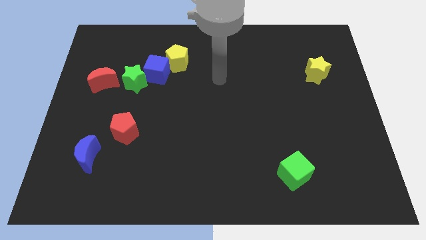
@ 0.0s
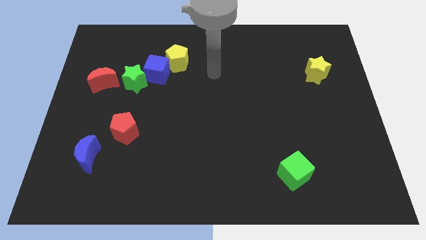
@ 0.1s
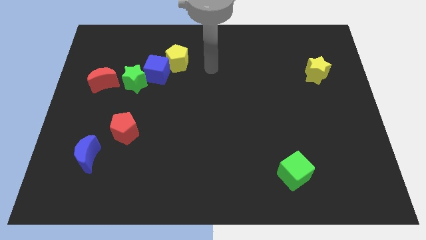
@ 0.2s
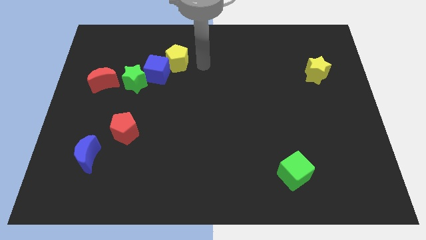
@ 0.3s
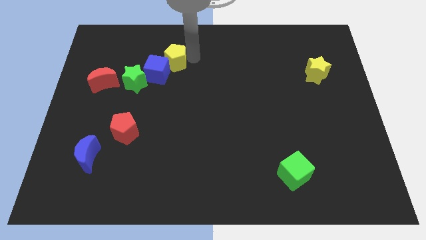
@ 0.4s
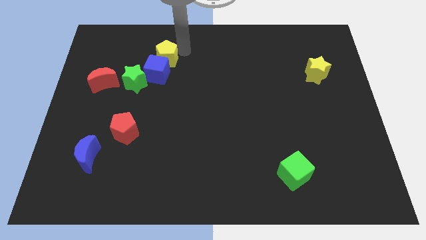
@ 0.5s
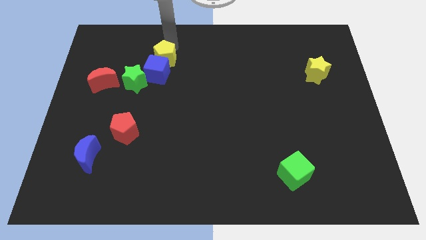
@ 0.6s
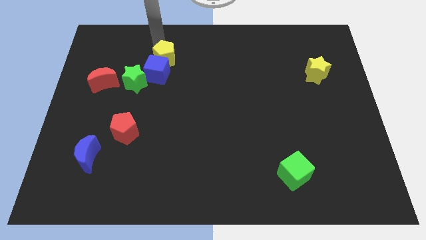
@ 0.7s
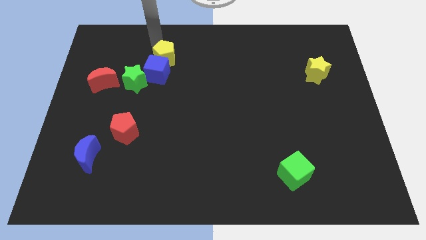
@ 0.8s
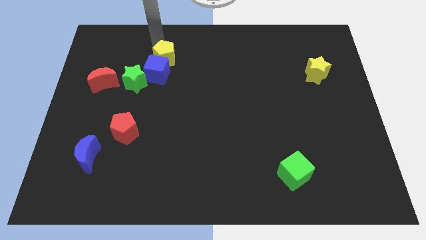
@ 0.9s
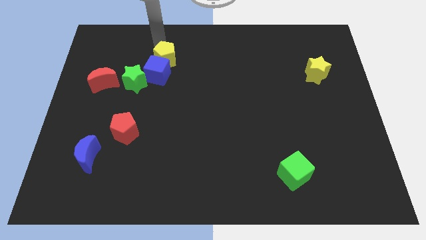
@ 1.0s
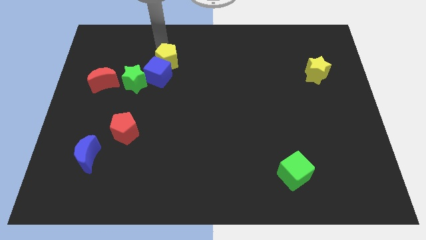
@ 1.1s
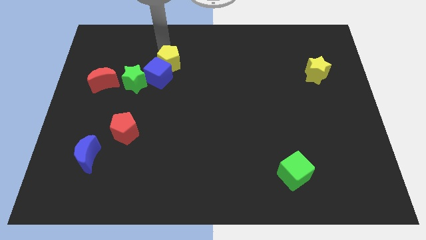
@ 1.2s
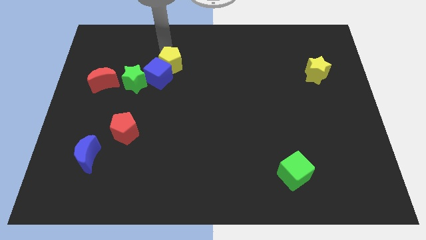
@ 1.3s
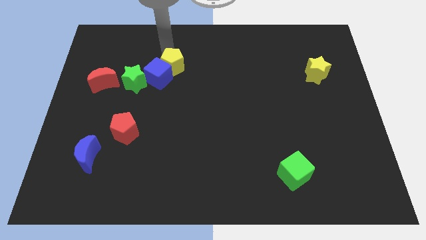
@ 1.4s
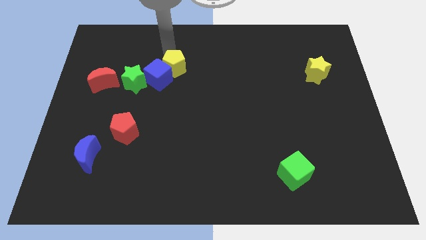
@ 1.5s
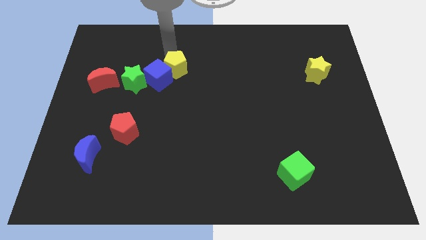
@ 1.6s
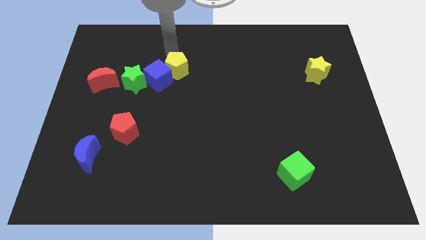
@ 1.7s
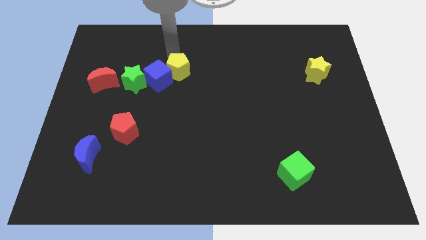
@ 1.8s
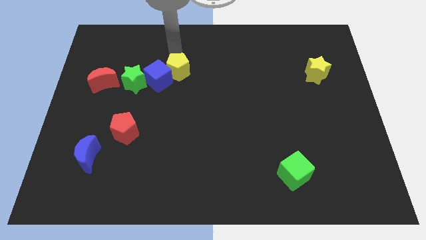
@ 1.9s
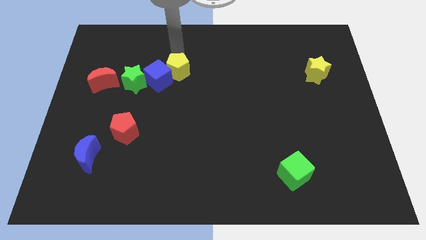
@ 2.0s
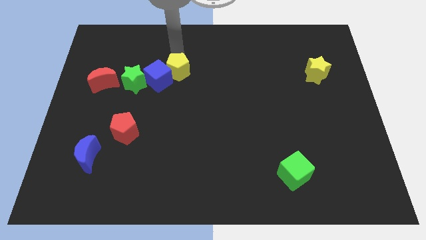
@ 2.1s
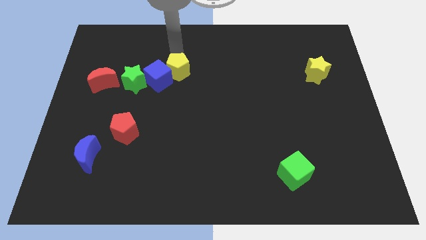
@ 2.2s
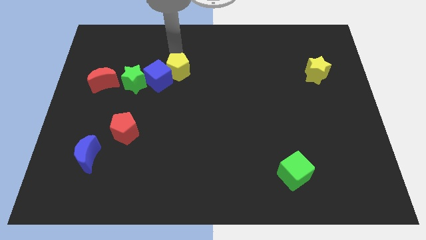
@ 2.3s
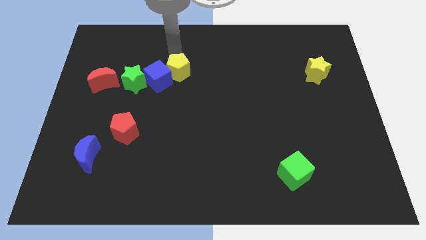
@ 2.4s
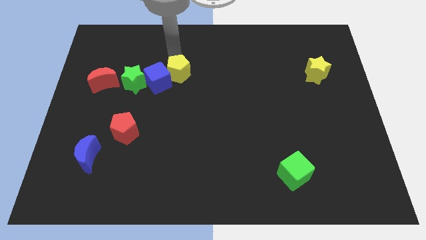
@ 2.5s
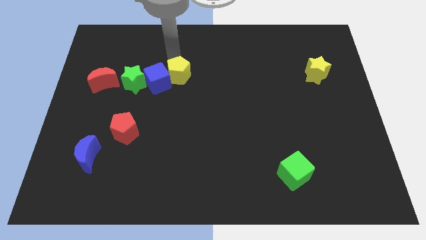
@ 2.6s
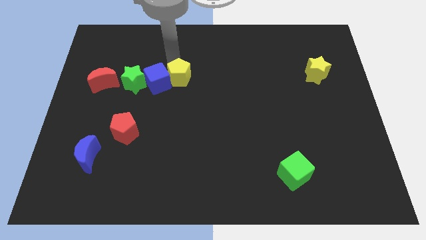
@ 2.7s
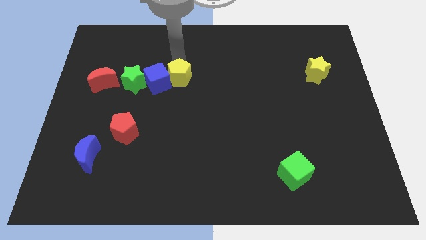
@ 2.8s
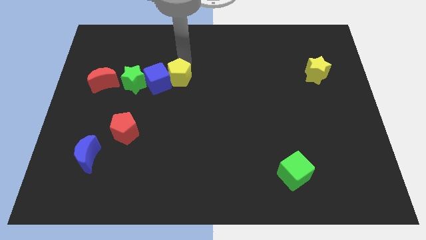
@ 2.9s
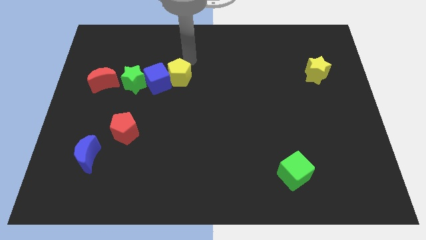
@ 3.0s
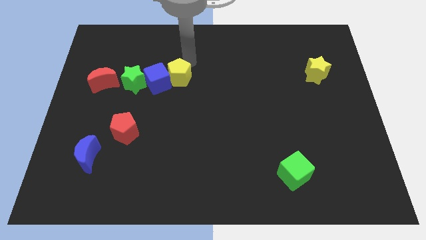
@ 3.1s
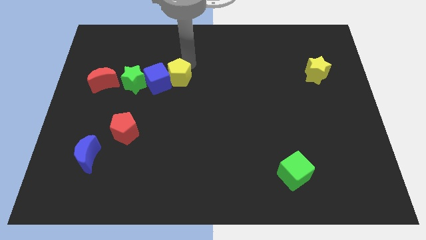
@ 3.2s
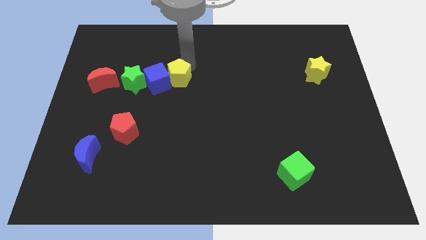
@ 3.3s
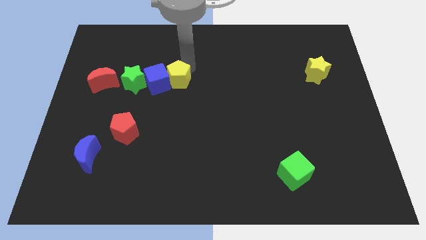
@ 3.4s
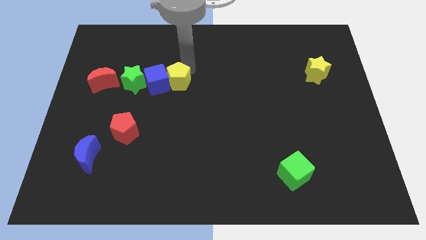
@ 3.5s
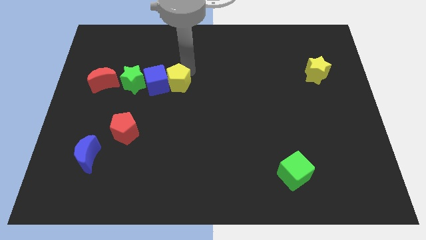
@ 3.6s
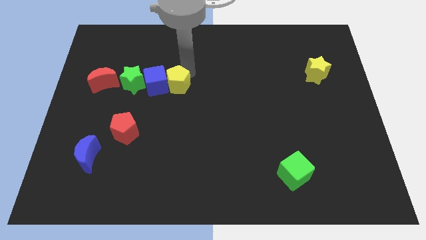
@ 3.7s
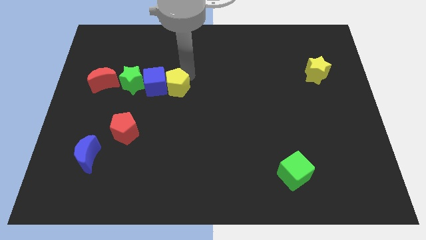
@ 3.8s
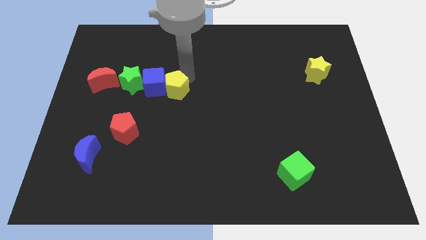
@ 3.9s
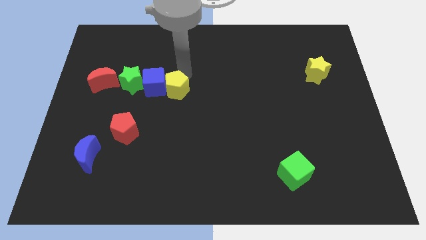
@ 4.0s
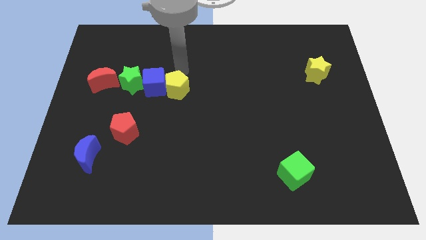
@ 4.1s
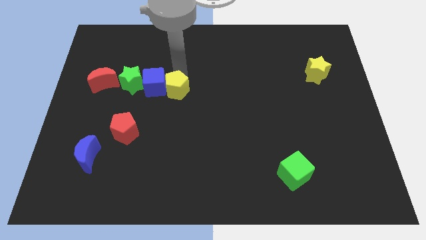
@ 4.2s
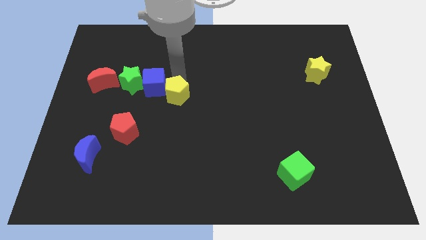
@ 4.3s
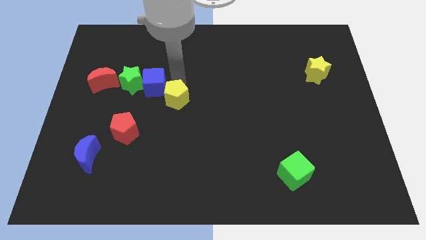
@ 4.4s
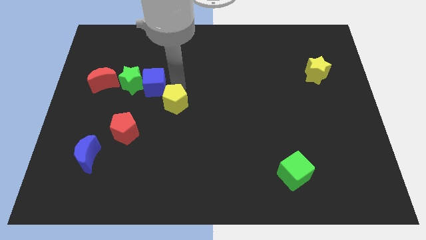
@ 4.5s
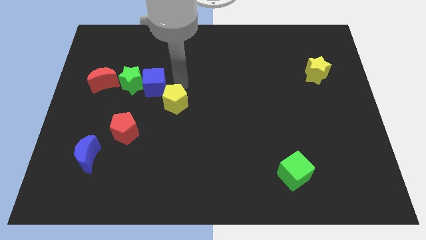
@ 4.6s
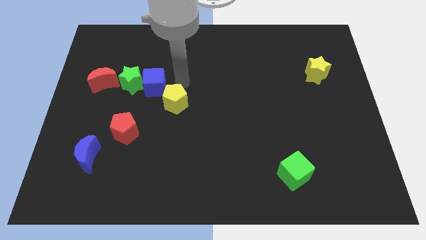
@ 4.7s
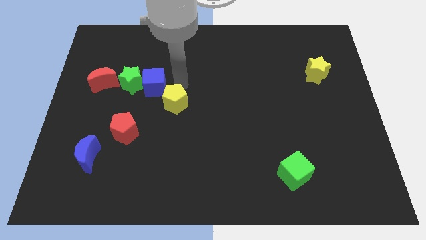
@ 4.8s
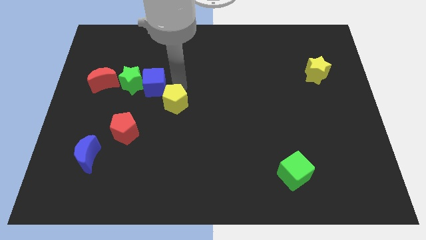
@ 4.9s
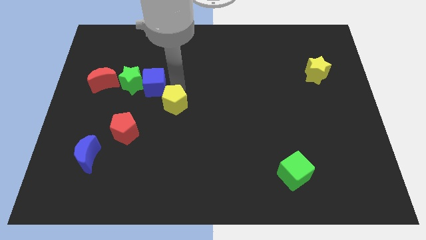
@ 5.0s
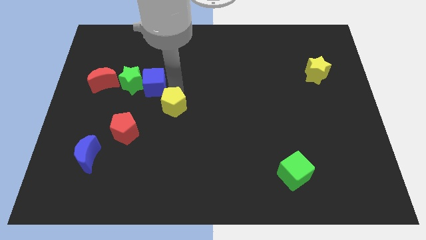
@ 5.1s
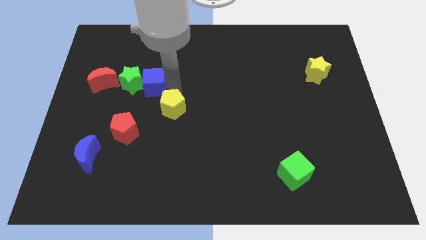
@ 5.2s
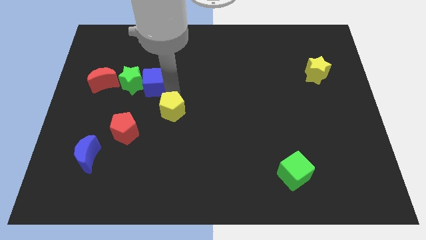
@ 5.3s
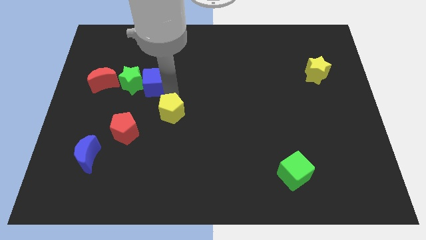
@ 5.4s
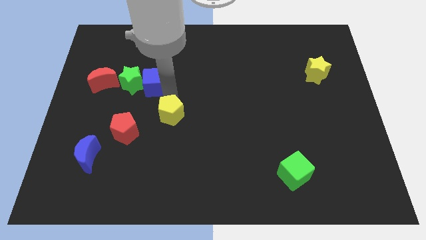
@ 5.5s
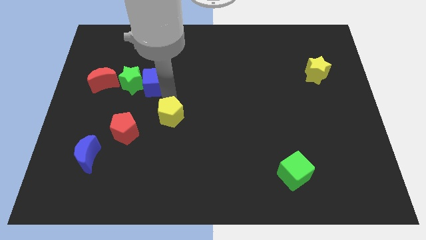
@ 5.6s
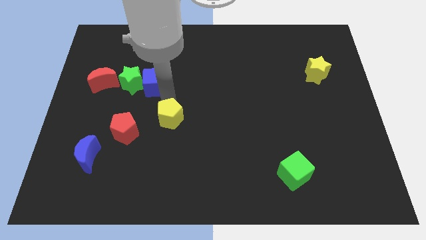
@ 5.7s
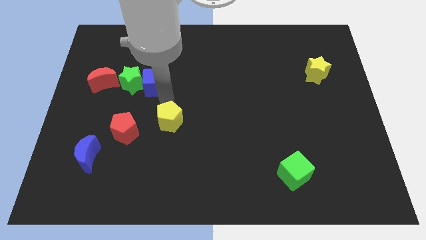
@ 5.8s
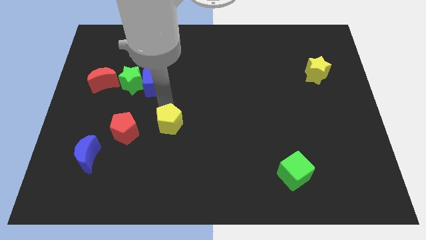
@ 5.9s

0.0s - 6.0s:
push the yellow pentagon down

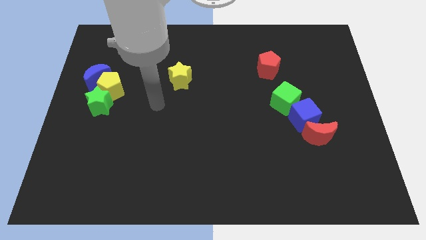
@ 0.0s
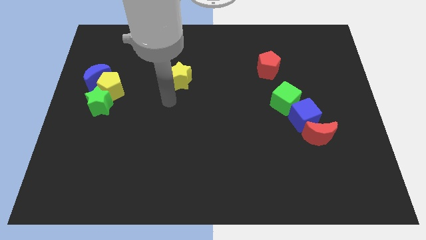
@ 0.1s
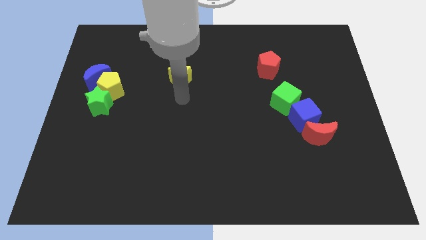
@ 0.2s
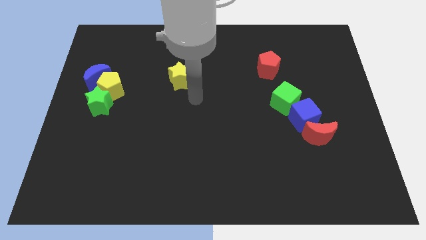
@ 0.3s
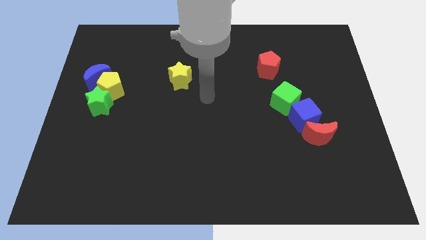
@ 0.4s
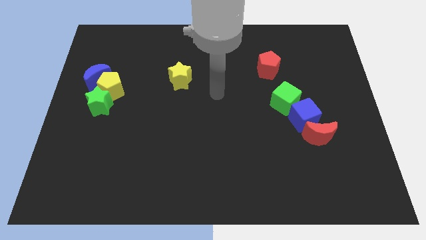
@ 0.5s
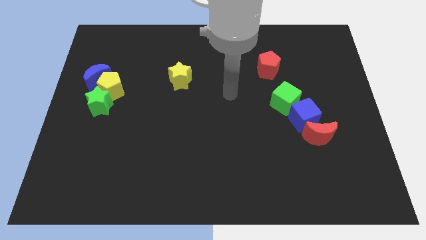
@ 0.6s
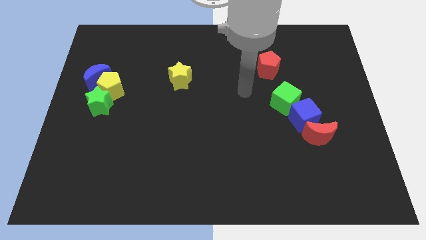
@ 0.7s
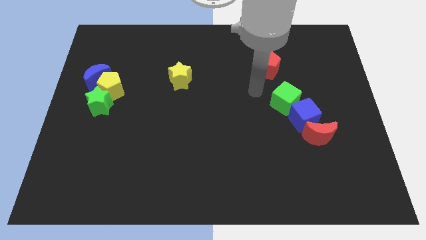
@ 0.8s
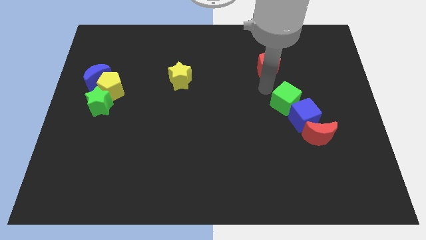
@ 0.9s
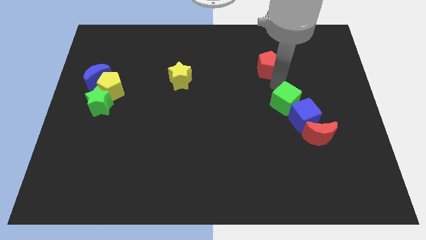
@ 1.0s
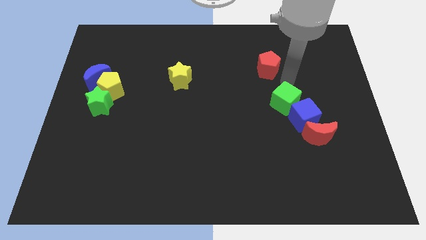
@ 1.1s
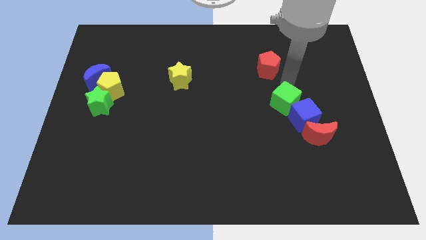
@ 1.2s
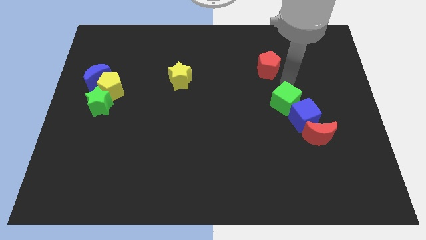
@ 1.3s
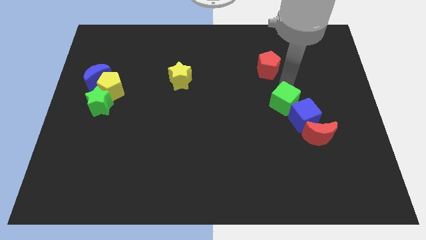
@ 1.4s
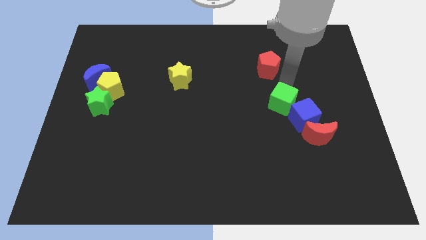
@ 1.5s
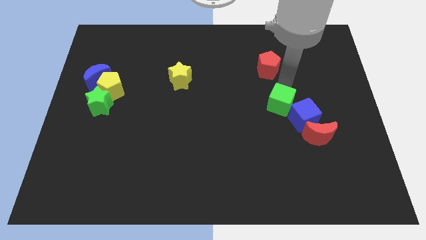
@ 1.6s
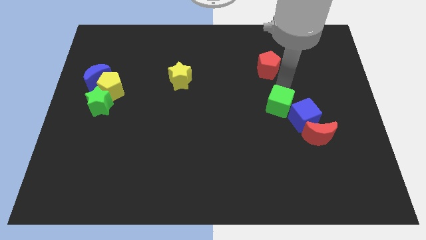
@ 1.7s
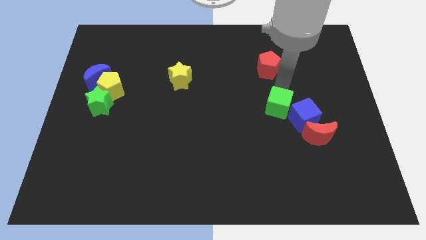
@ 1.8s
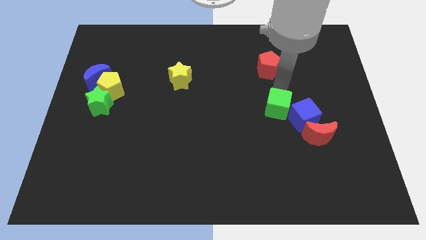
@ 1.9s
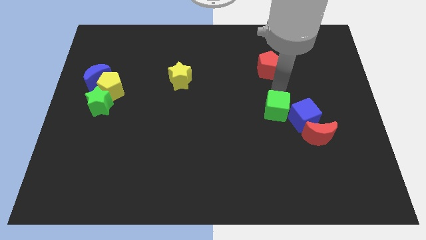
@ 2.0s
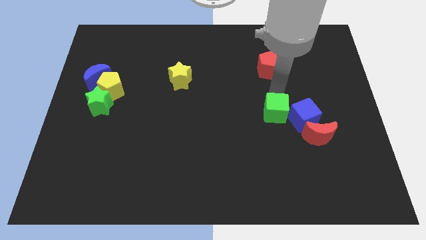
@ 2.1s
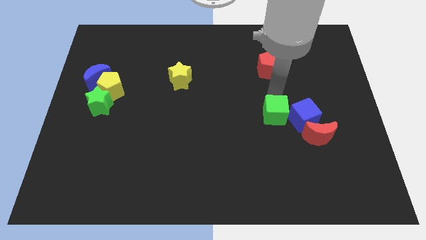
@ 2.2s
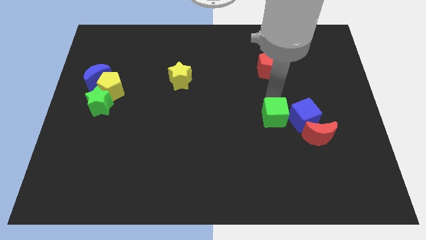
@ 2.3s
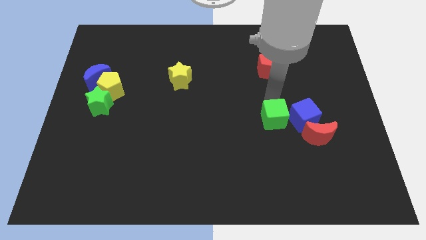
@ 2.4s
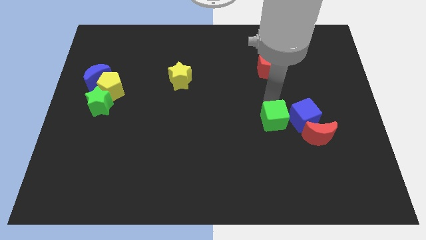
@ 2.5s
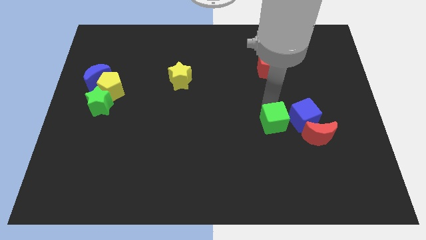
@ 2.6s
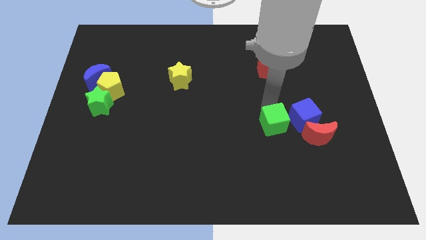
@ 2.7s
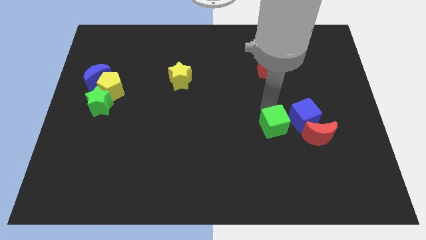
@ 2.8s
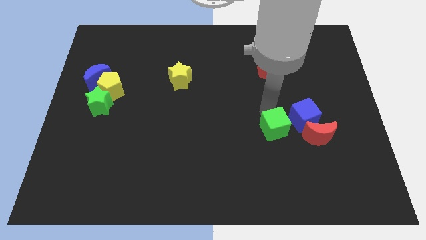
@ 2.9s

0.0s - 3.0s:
push the green cube somewhat downwards
